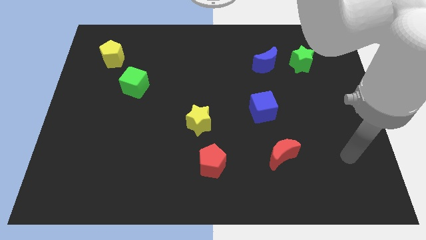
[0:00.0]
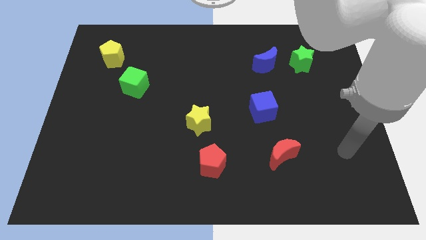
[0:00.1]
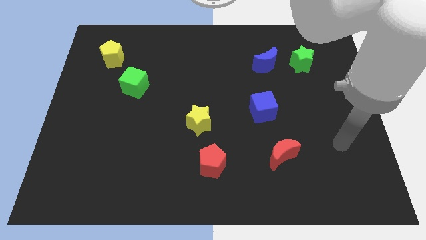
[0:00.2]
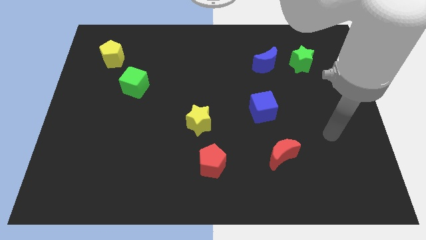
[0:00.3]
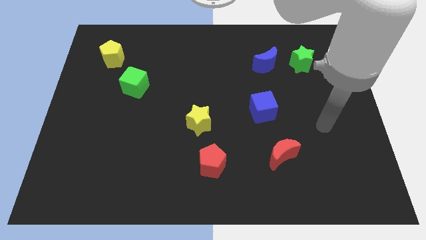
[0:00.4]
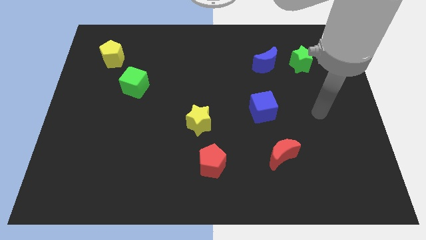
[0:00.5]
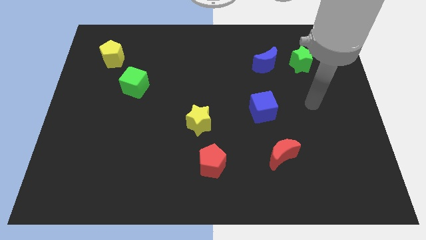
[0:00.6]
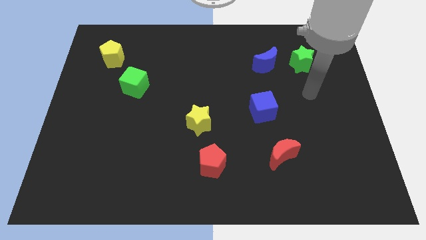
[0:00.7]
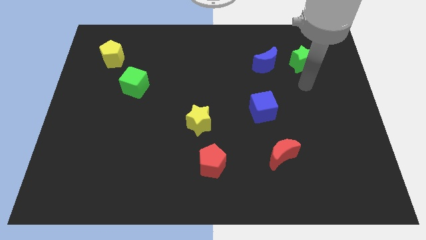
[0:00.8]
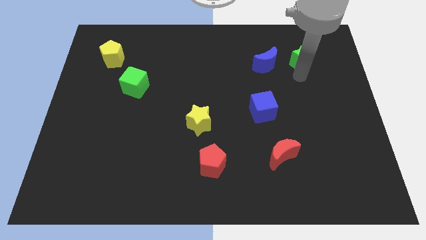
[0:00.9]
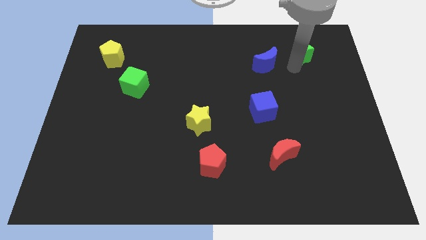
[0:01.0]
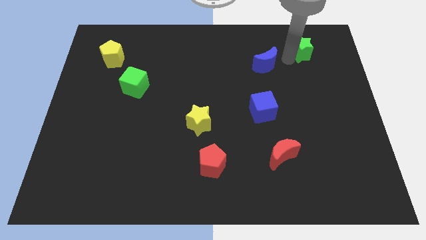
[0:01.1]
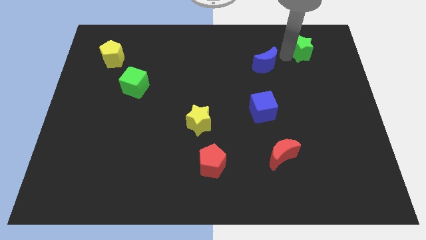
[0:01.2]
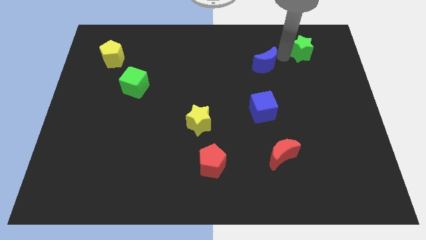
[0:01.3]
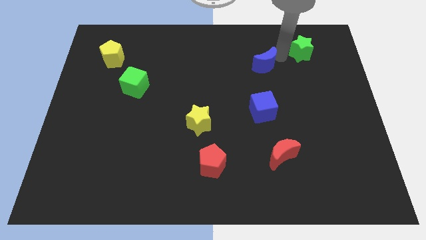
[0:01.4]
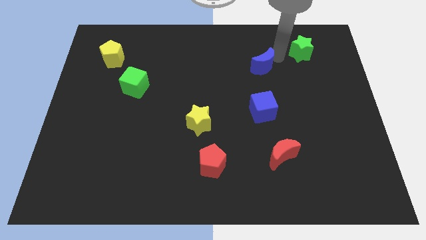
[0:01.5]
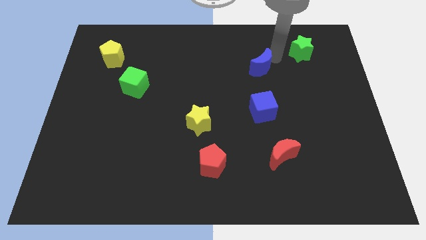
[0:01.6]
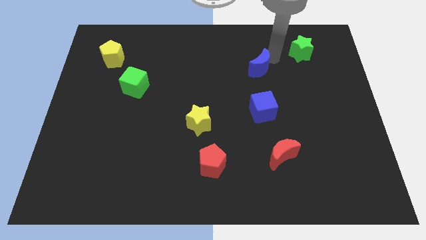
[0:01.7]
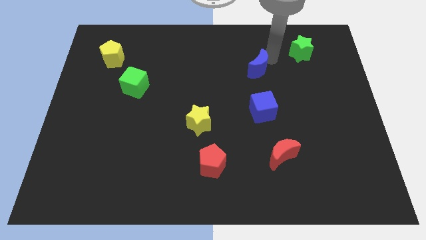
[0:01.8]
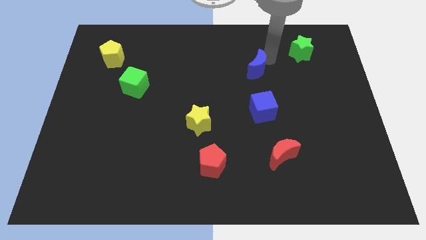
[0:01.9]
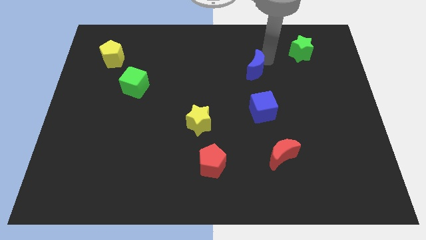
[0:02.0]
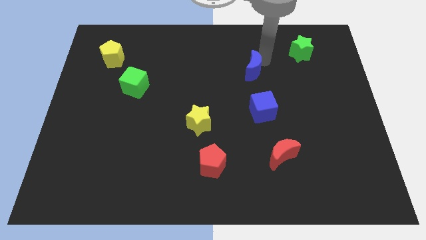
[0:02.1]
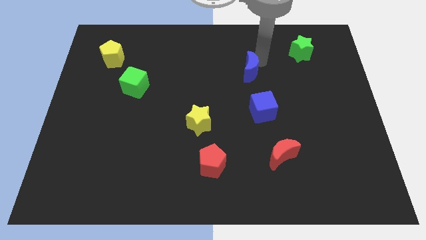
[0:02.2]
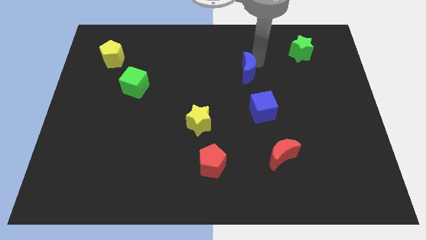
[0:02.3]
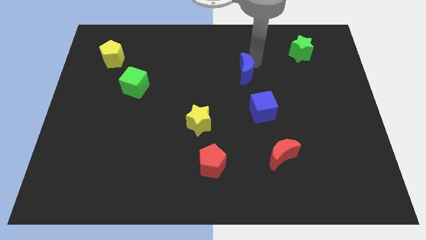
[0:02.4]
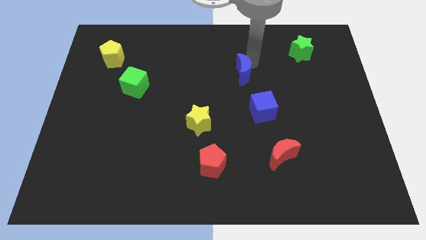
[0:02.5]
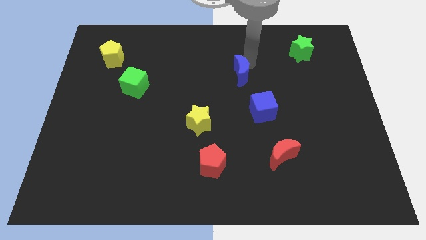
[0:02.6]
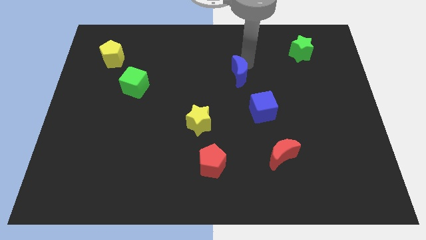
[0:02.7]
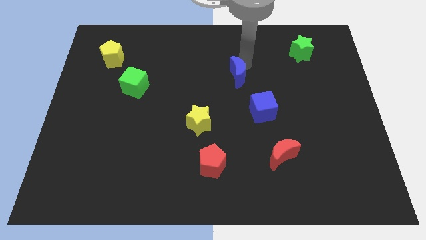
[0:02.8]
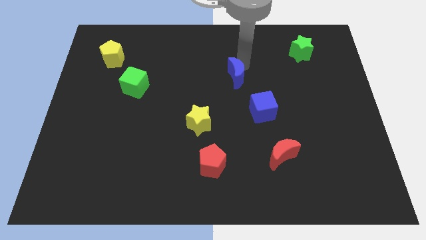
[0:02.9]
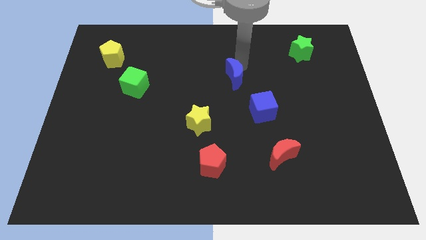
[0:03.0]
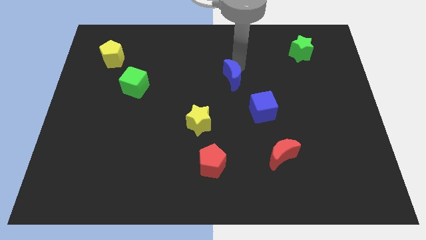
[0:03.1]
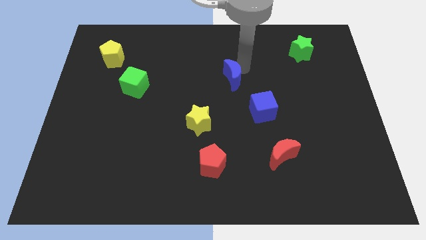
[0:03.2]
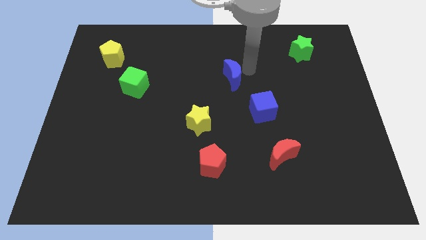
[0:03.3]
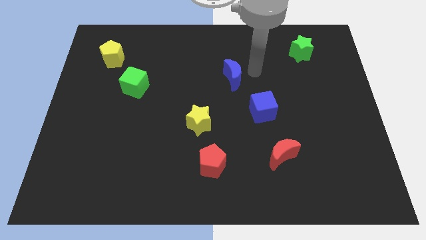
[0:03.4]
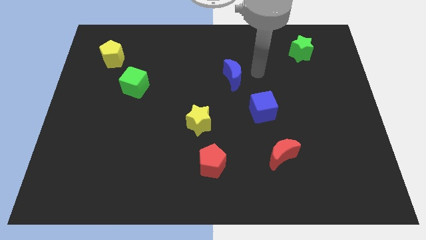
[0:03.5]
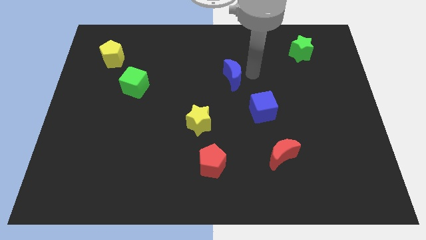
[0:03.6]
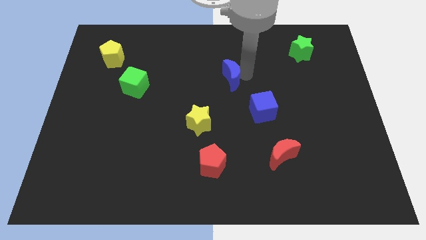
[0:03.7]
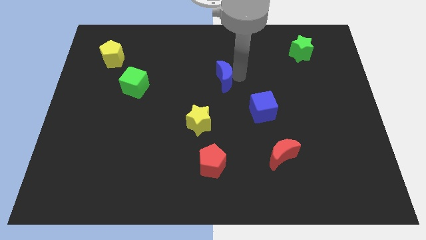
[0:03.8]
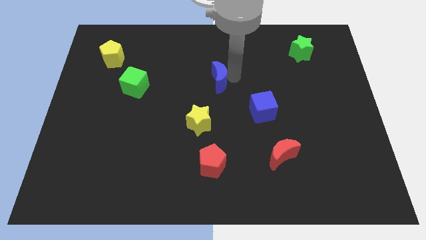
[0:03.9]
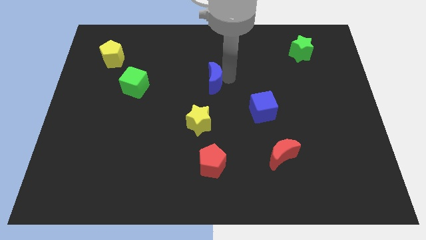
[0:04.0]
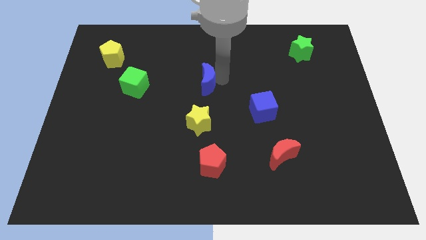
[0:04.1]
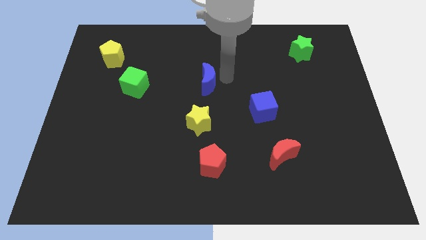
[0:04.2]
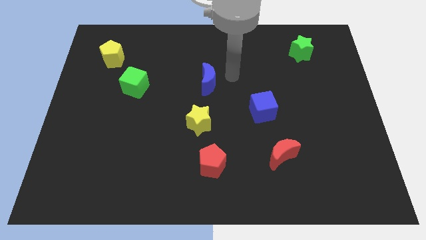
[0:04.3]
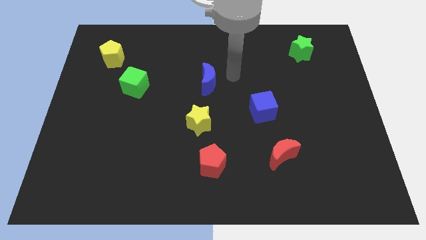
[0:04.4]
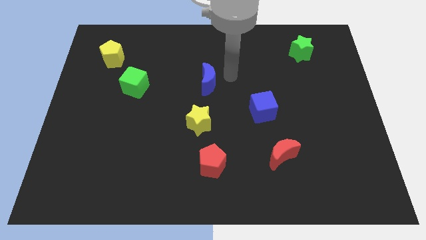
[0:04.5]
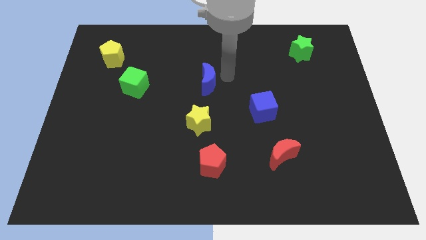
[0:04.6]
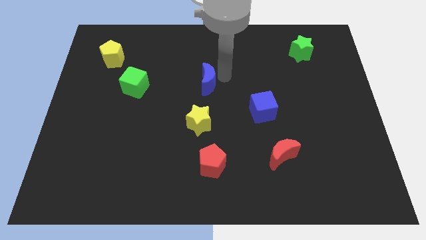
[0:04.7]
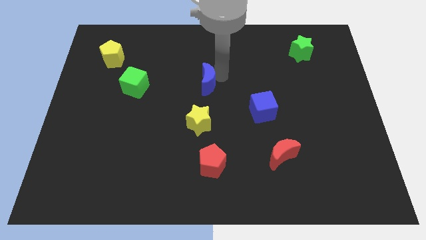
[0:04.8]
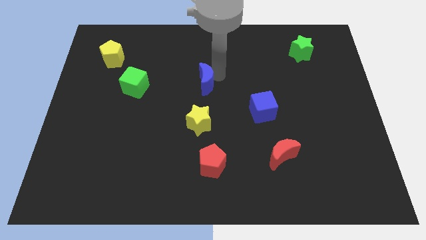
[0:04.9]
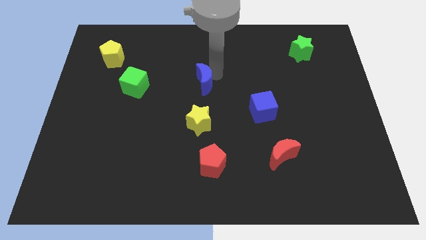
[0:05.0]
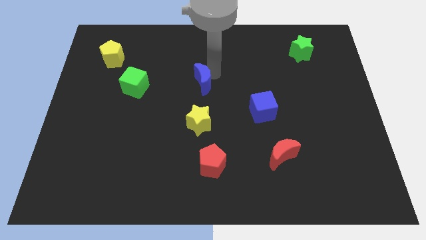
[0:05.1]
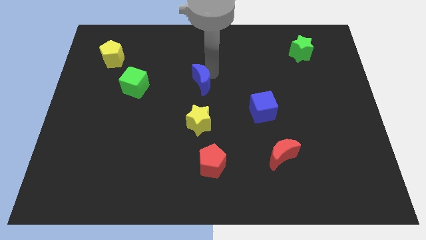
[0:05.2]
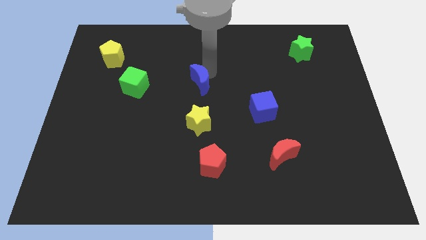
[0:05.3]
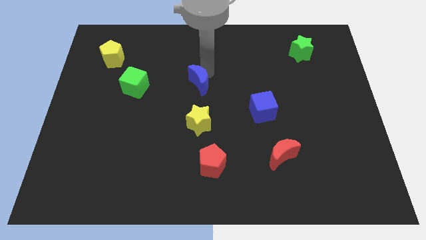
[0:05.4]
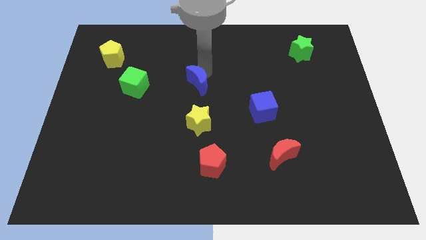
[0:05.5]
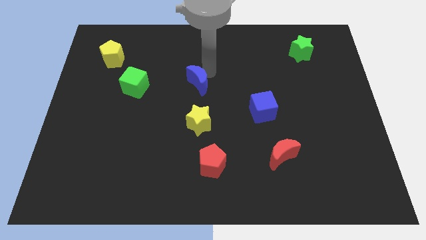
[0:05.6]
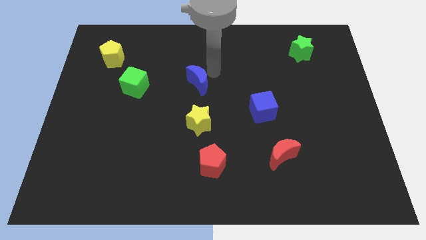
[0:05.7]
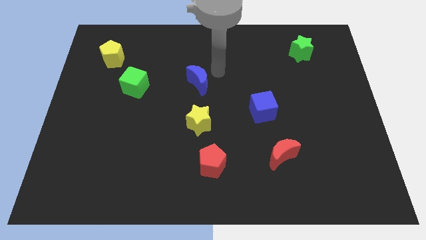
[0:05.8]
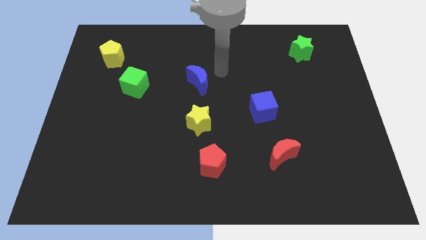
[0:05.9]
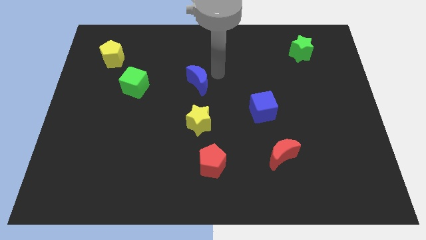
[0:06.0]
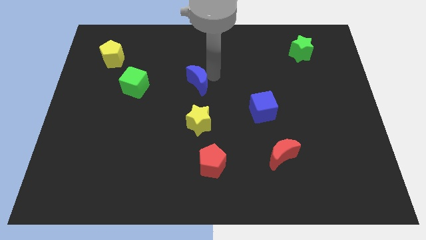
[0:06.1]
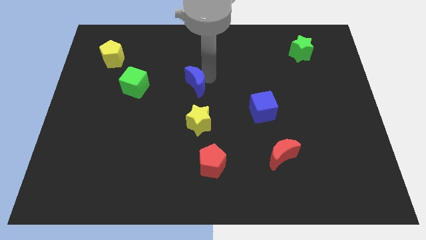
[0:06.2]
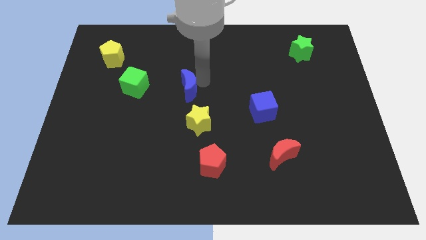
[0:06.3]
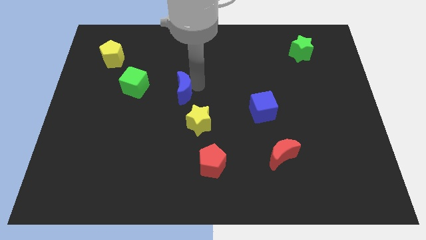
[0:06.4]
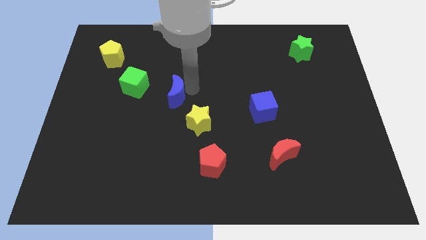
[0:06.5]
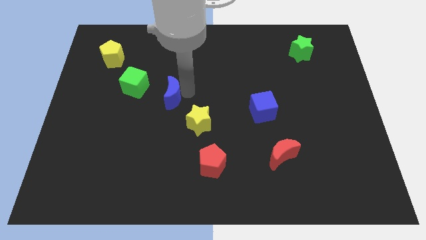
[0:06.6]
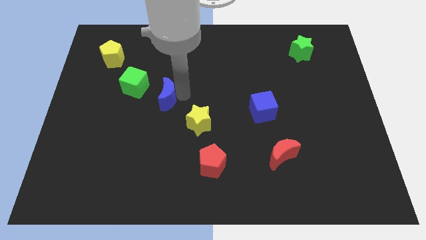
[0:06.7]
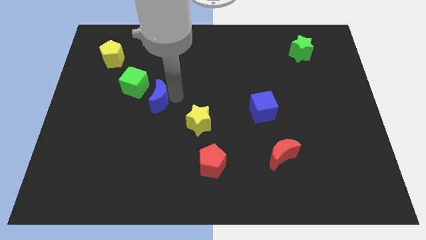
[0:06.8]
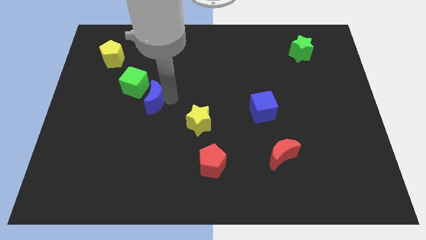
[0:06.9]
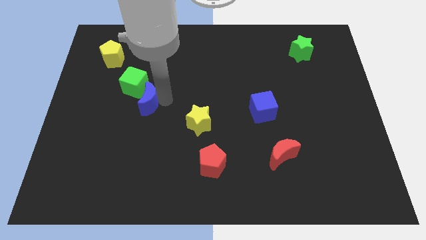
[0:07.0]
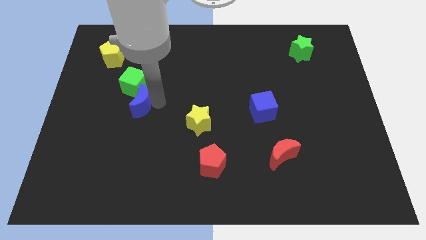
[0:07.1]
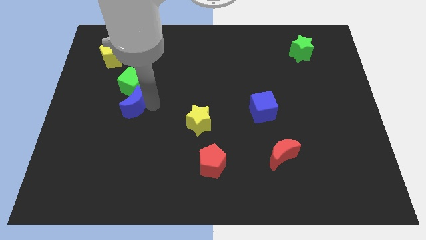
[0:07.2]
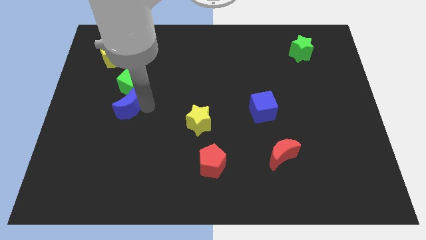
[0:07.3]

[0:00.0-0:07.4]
put the blue moon to the bottom left of the green cube
